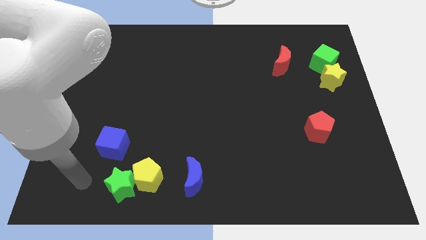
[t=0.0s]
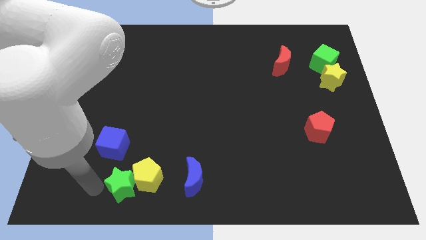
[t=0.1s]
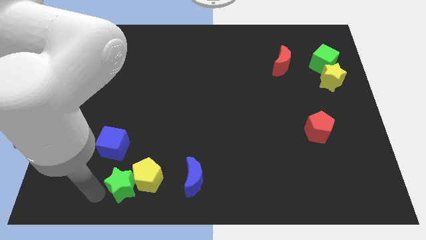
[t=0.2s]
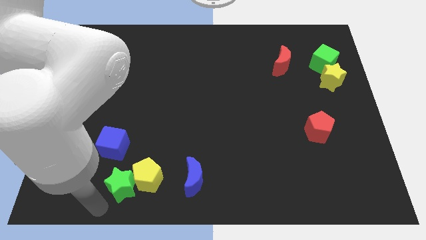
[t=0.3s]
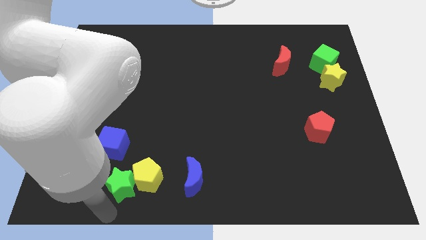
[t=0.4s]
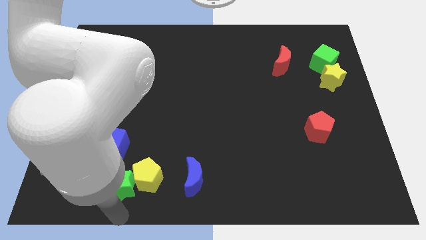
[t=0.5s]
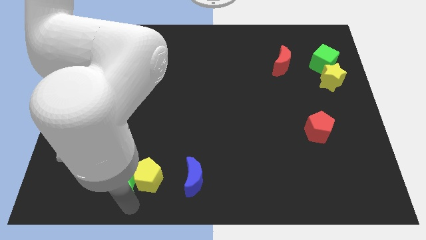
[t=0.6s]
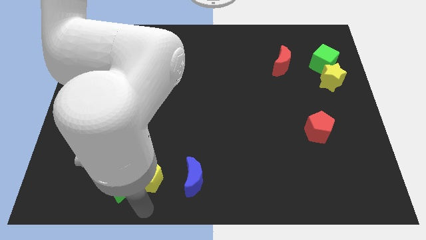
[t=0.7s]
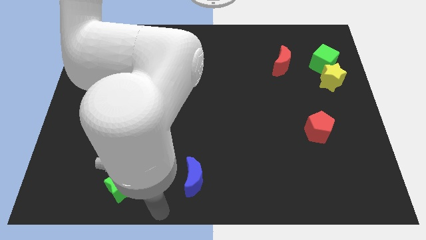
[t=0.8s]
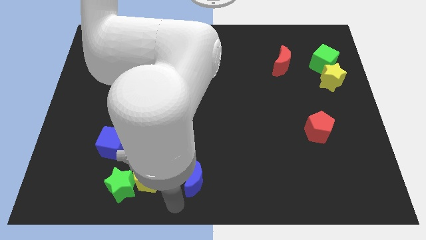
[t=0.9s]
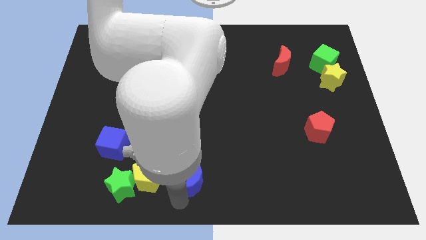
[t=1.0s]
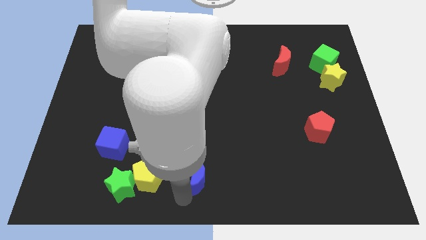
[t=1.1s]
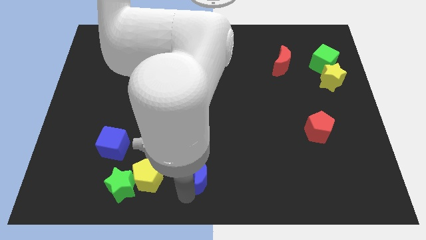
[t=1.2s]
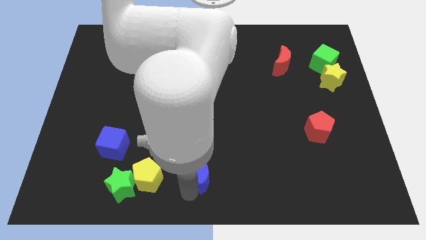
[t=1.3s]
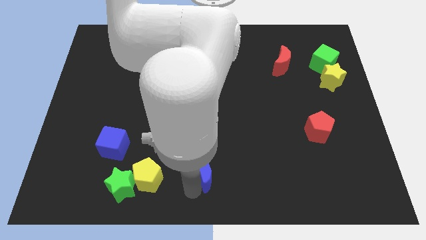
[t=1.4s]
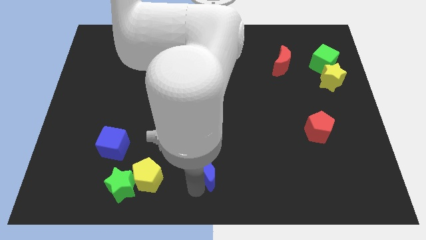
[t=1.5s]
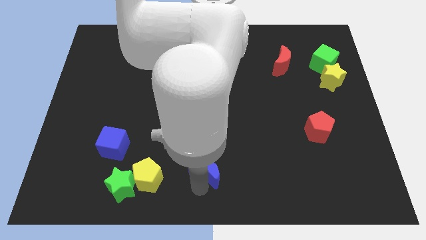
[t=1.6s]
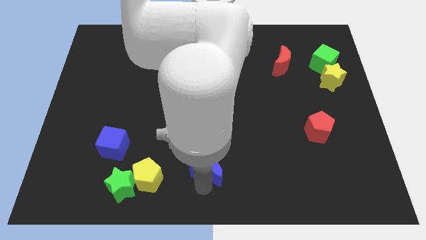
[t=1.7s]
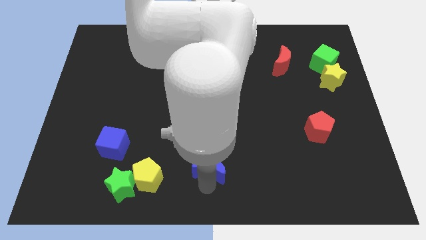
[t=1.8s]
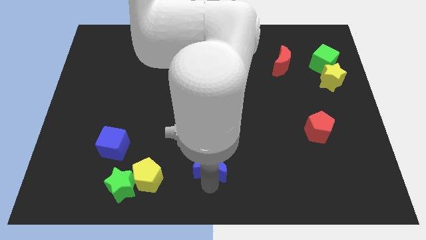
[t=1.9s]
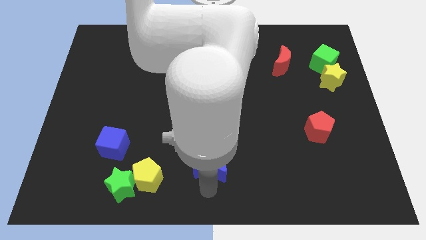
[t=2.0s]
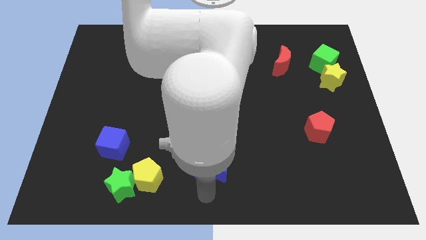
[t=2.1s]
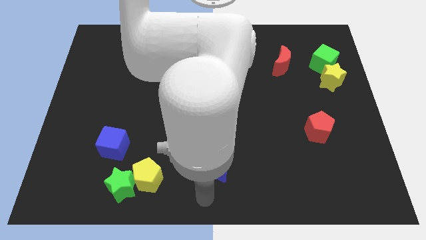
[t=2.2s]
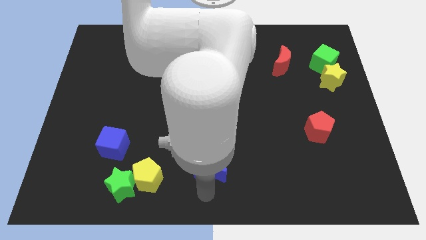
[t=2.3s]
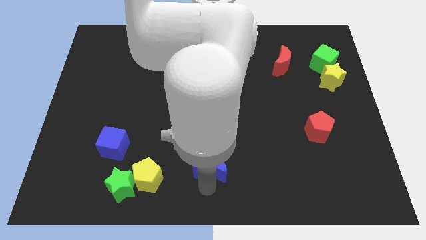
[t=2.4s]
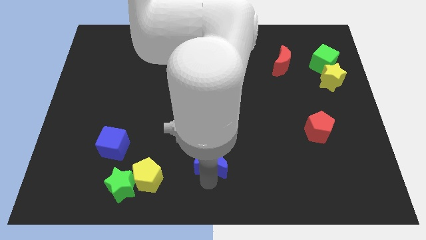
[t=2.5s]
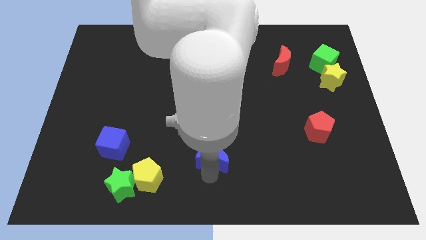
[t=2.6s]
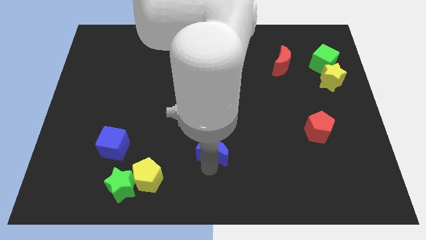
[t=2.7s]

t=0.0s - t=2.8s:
slide the blue moon up and to the right diagonally slightly

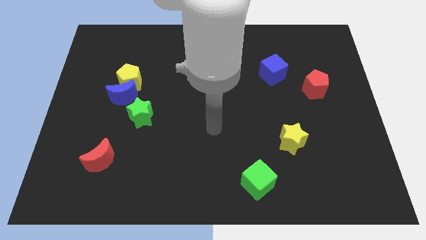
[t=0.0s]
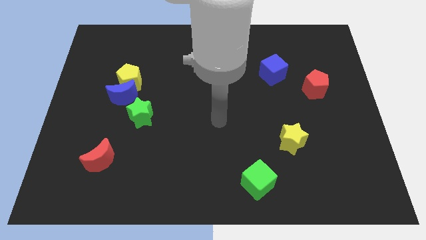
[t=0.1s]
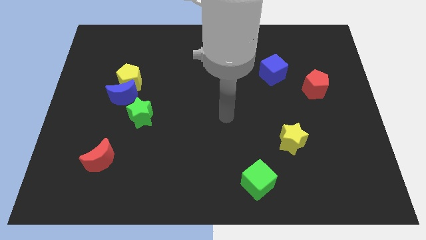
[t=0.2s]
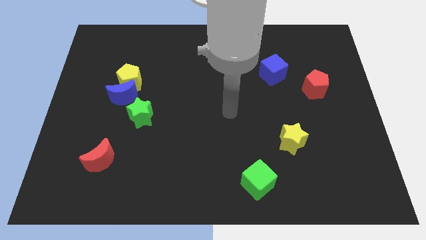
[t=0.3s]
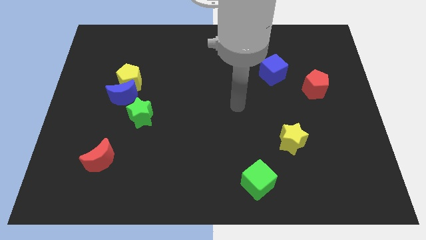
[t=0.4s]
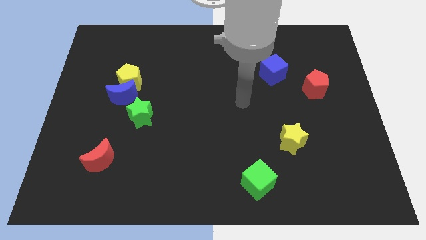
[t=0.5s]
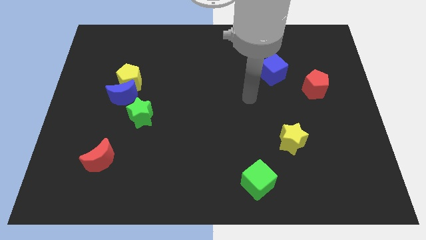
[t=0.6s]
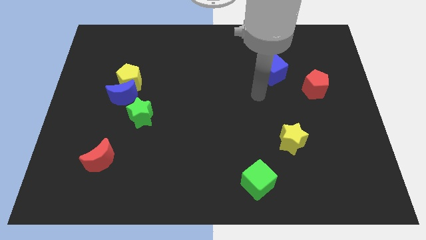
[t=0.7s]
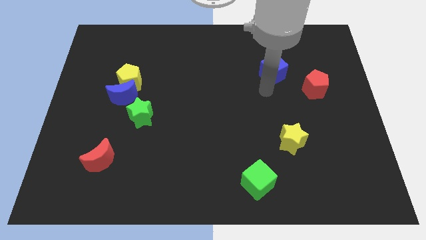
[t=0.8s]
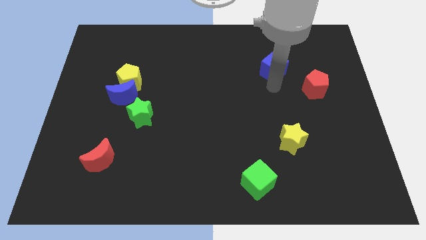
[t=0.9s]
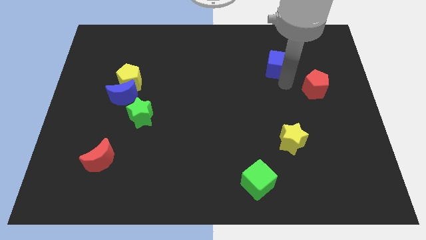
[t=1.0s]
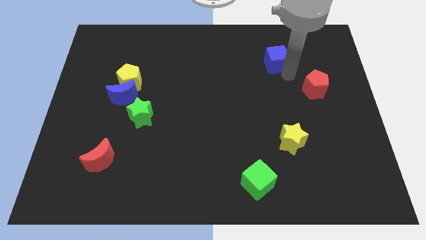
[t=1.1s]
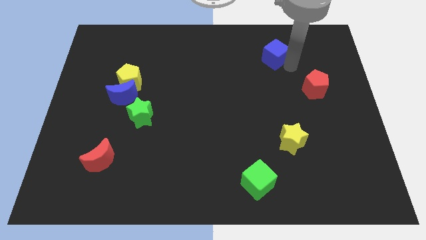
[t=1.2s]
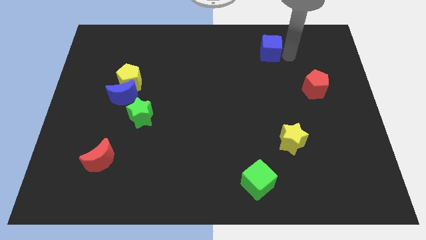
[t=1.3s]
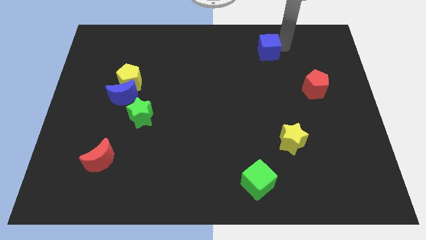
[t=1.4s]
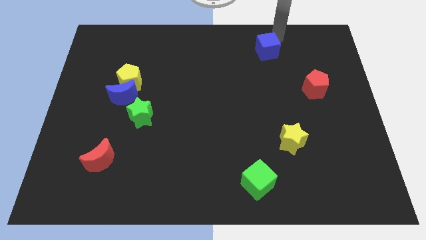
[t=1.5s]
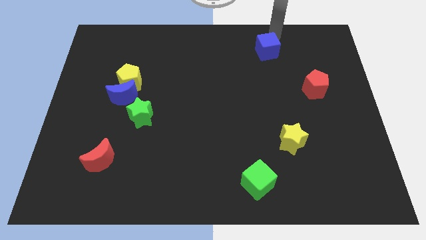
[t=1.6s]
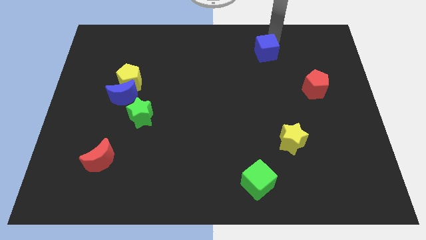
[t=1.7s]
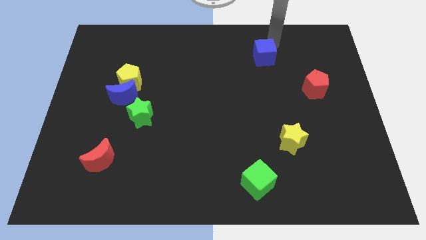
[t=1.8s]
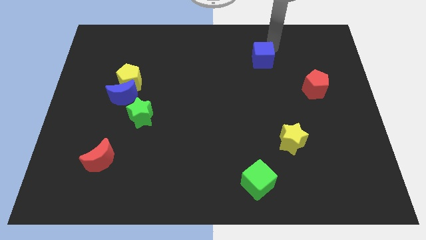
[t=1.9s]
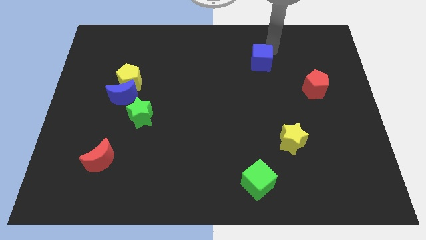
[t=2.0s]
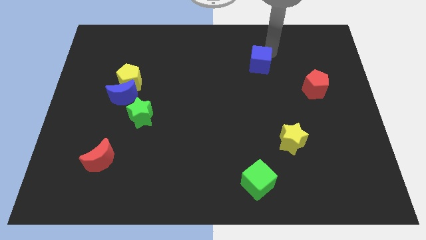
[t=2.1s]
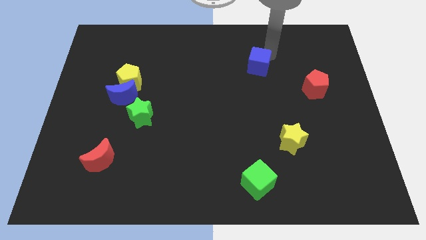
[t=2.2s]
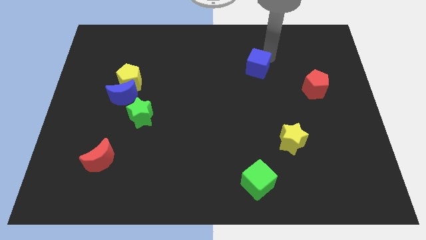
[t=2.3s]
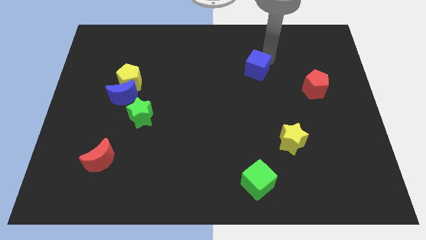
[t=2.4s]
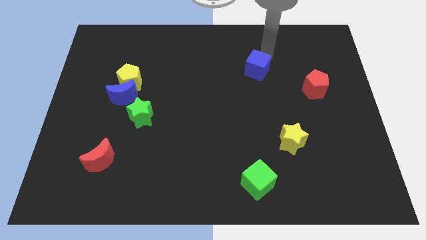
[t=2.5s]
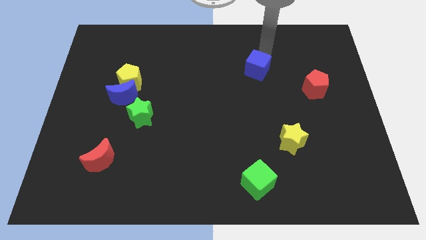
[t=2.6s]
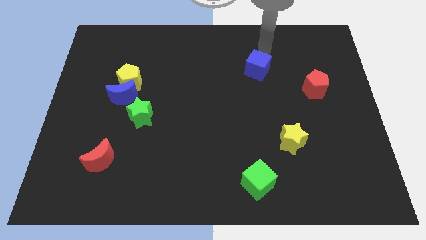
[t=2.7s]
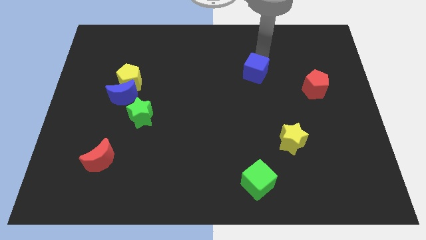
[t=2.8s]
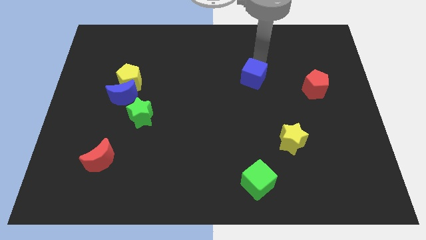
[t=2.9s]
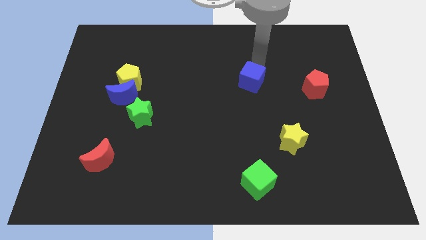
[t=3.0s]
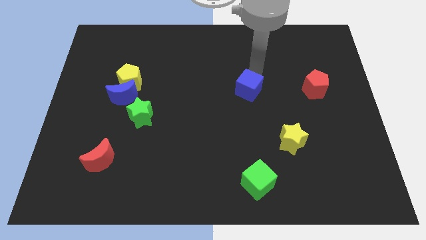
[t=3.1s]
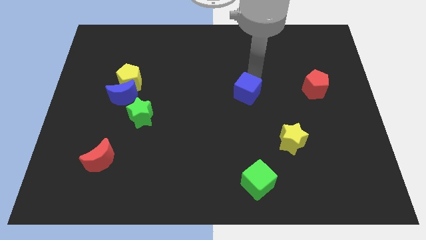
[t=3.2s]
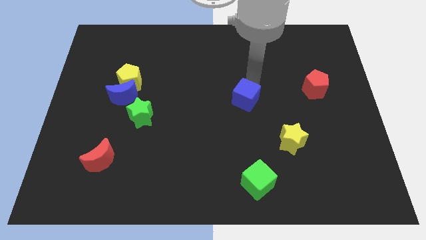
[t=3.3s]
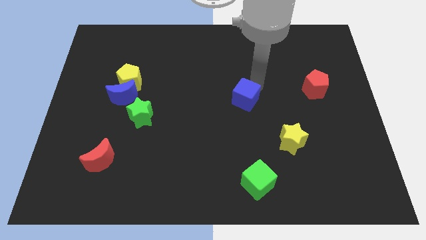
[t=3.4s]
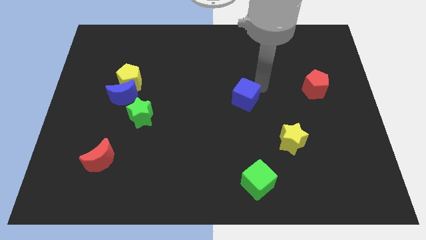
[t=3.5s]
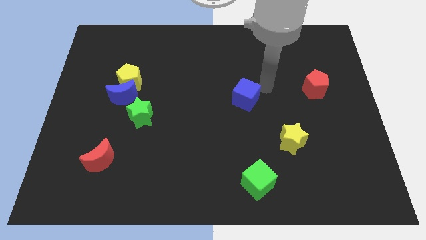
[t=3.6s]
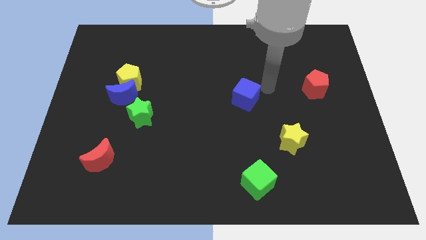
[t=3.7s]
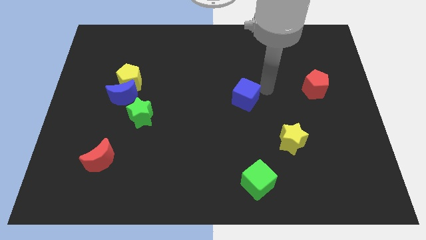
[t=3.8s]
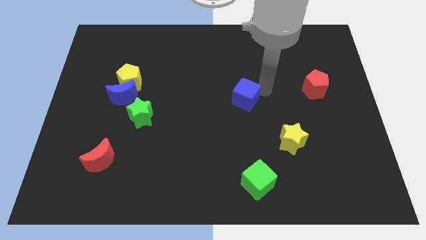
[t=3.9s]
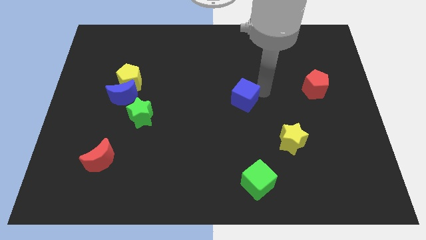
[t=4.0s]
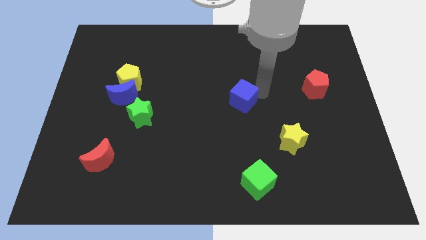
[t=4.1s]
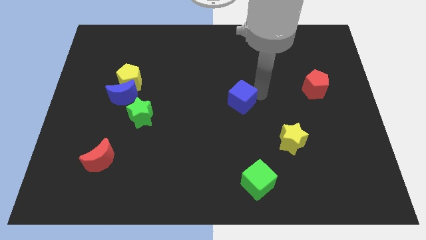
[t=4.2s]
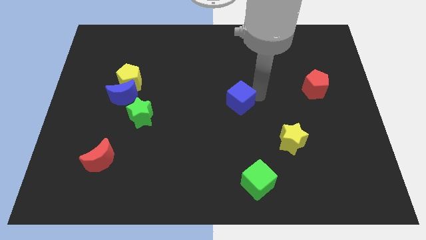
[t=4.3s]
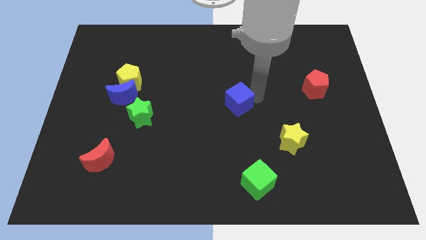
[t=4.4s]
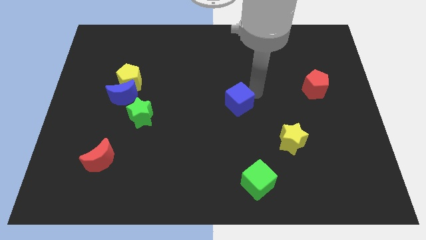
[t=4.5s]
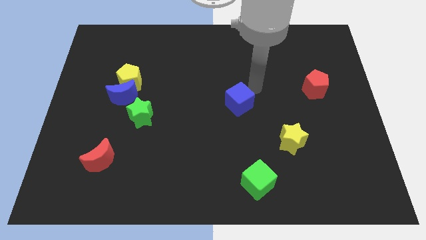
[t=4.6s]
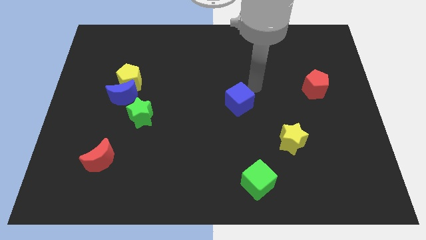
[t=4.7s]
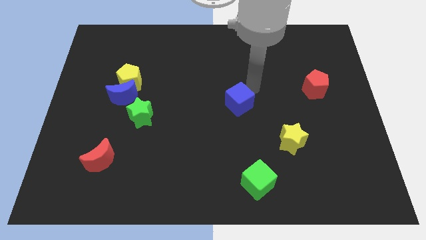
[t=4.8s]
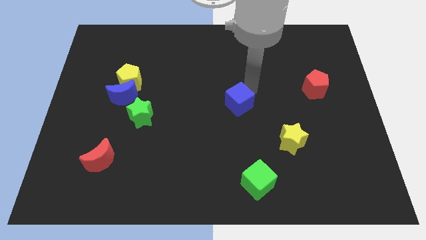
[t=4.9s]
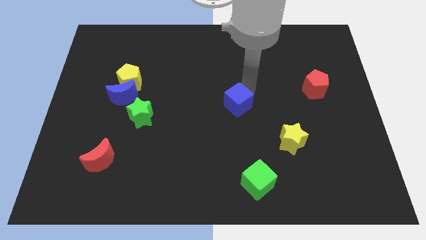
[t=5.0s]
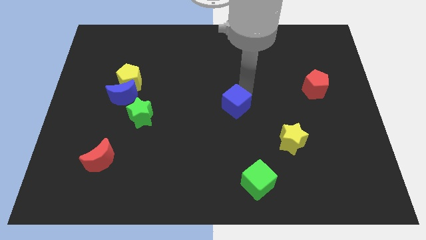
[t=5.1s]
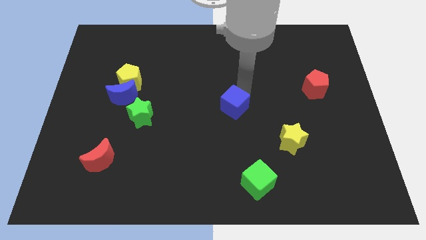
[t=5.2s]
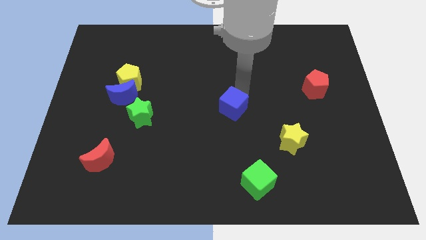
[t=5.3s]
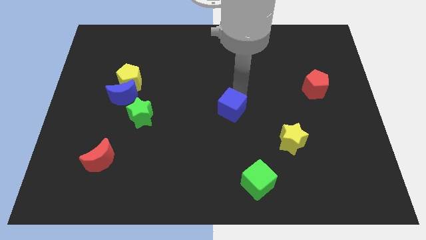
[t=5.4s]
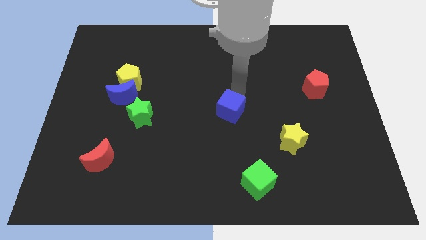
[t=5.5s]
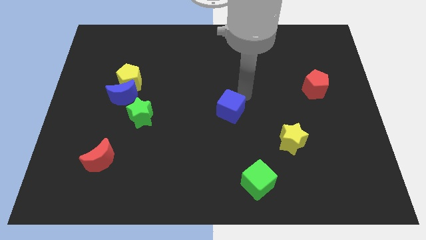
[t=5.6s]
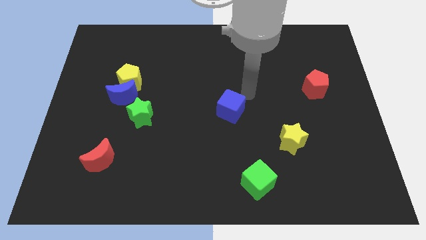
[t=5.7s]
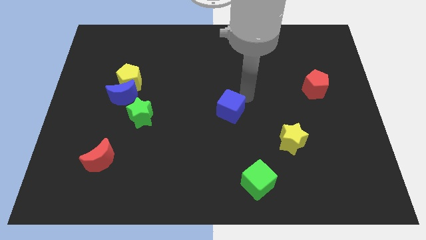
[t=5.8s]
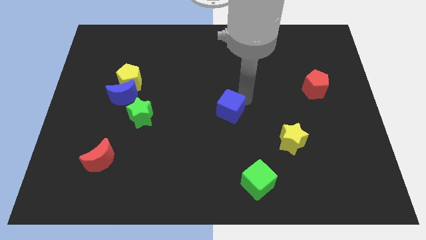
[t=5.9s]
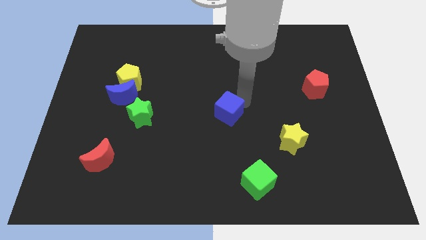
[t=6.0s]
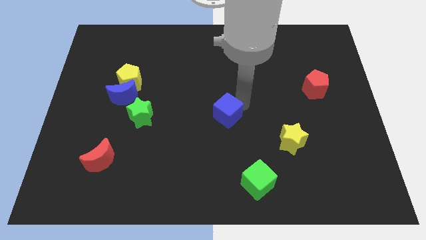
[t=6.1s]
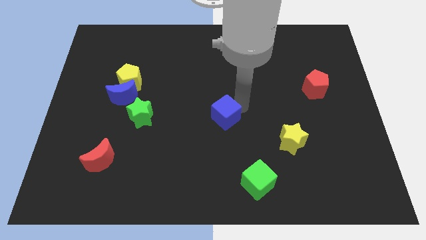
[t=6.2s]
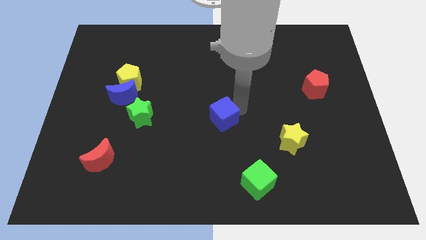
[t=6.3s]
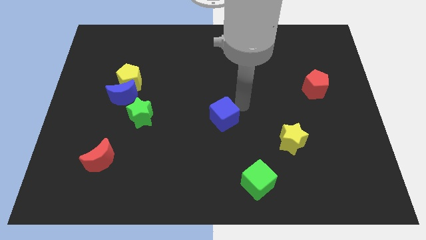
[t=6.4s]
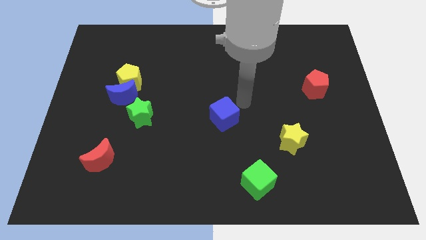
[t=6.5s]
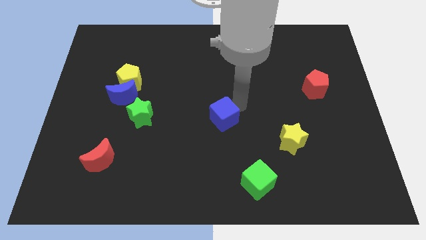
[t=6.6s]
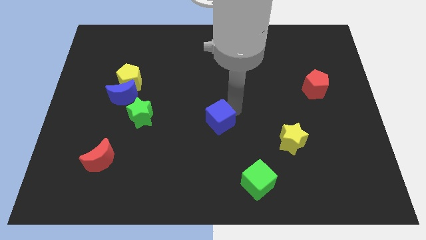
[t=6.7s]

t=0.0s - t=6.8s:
move the blue cube down and to the left diagonally
